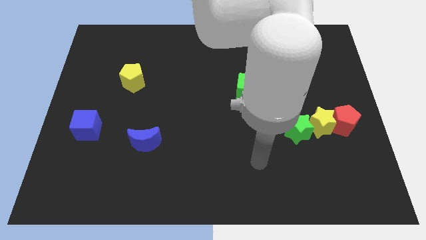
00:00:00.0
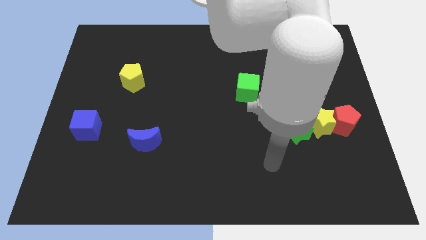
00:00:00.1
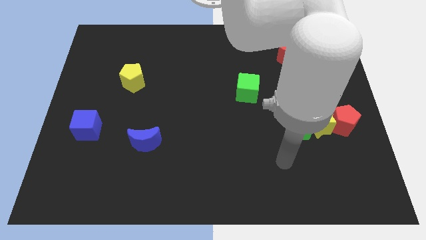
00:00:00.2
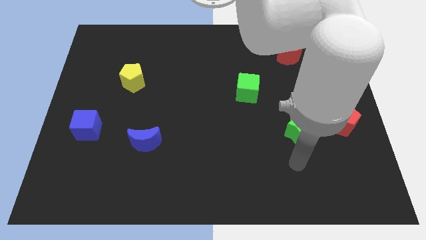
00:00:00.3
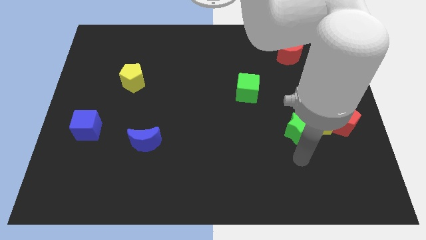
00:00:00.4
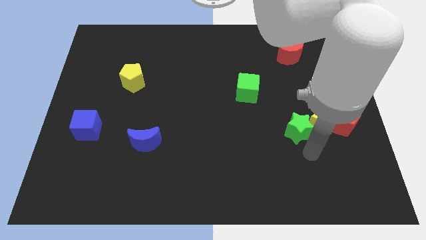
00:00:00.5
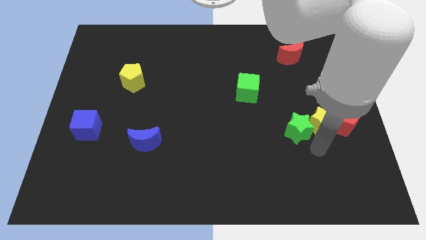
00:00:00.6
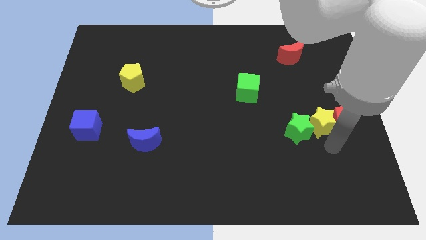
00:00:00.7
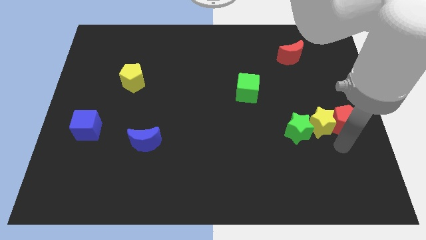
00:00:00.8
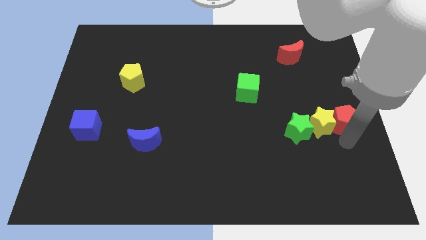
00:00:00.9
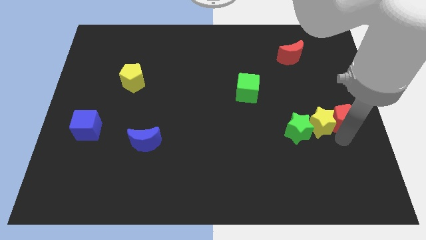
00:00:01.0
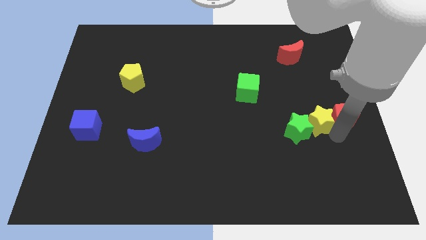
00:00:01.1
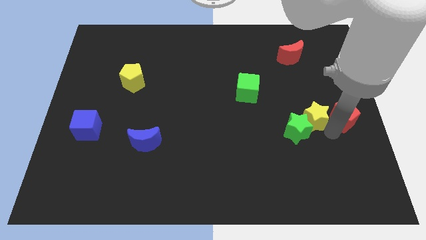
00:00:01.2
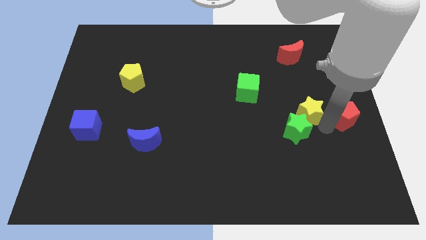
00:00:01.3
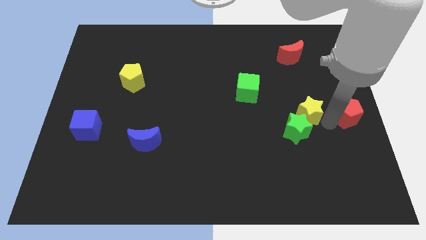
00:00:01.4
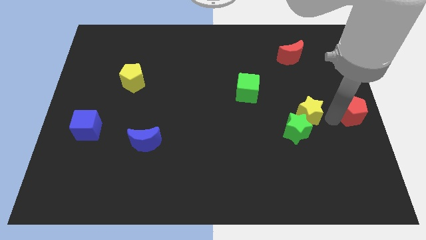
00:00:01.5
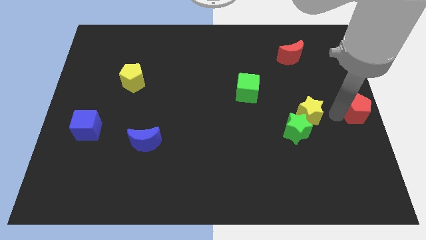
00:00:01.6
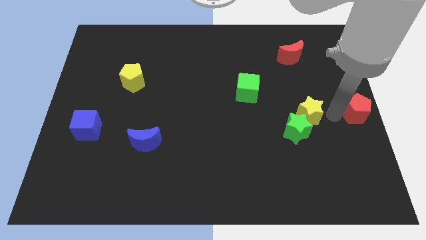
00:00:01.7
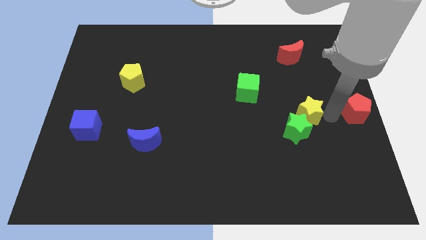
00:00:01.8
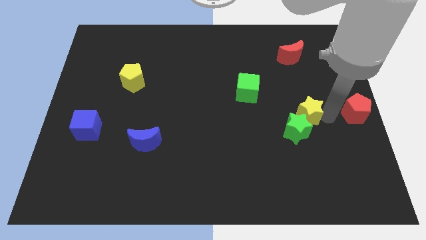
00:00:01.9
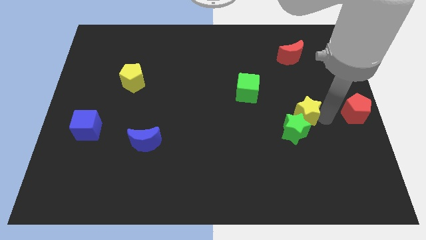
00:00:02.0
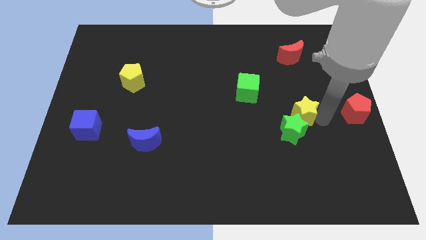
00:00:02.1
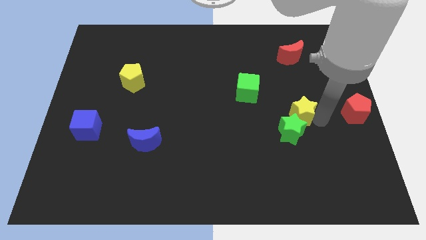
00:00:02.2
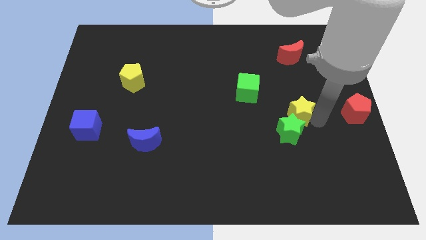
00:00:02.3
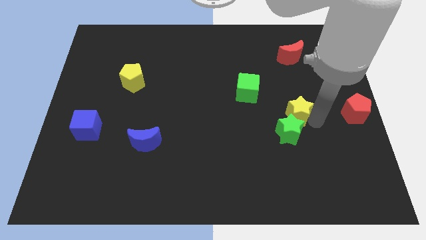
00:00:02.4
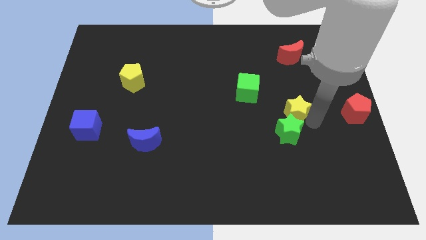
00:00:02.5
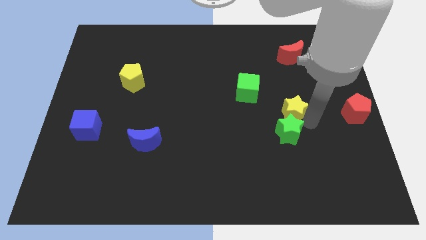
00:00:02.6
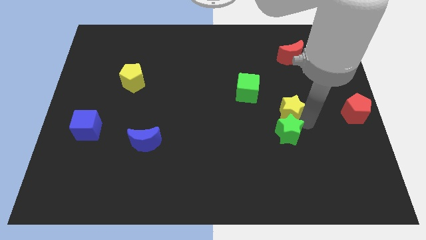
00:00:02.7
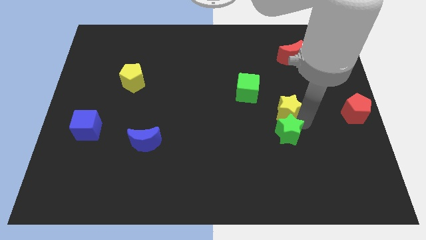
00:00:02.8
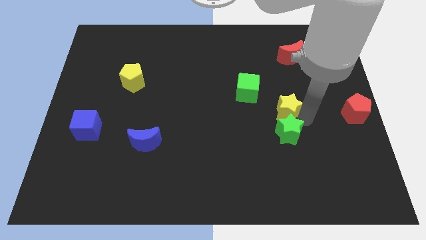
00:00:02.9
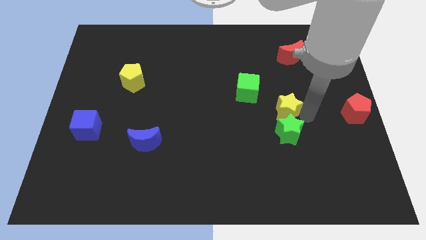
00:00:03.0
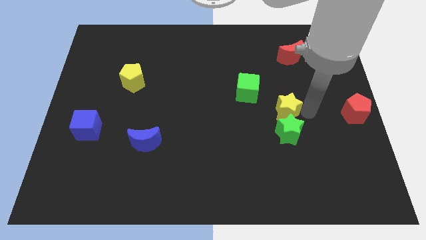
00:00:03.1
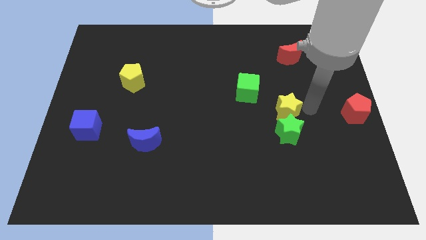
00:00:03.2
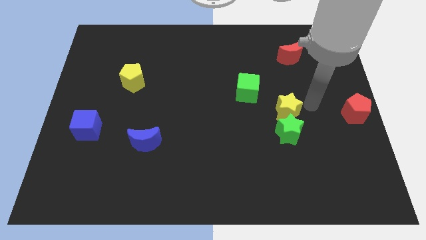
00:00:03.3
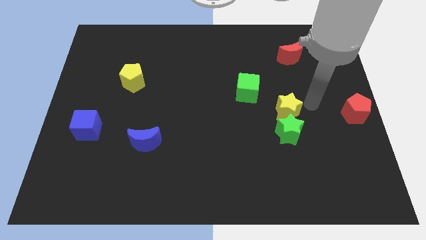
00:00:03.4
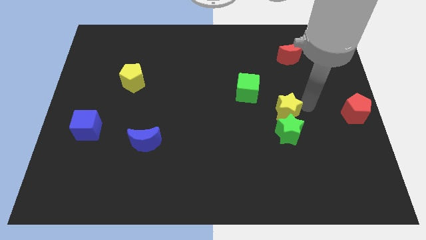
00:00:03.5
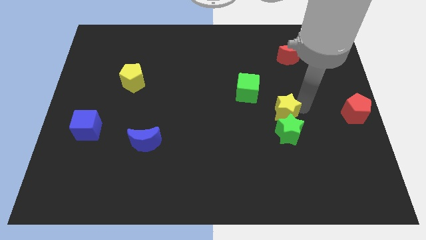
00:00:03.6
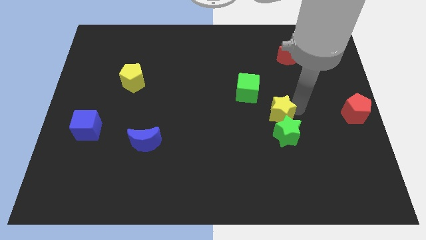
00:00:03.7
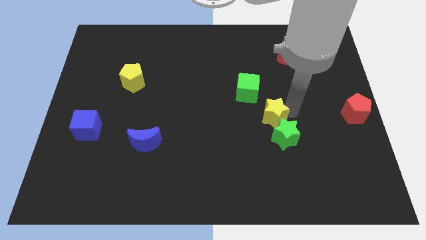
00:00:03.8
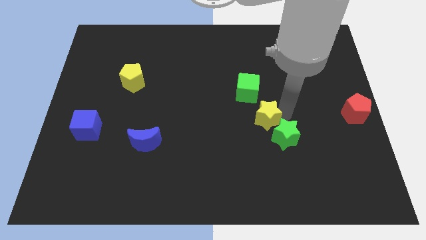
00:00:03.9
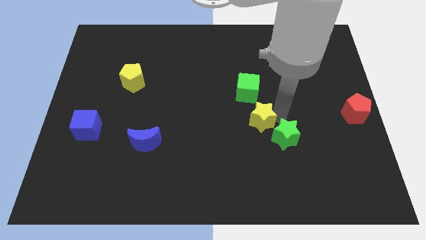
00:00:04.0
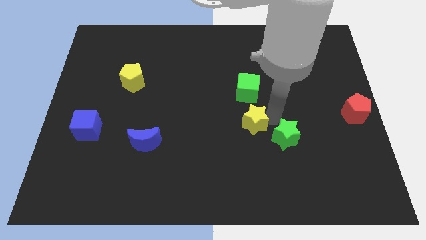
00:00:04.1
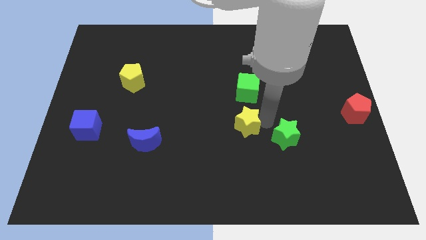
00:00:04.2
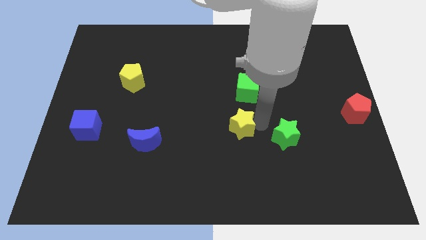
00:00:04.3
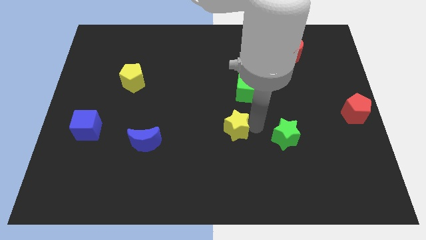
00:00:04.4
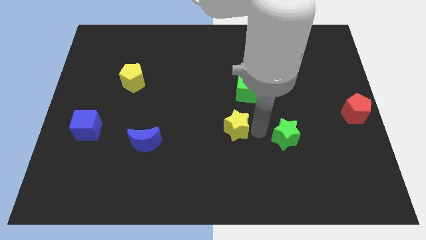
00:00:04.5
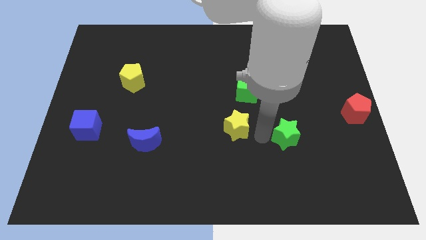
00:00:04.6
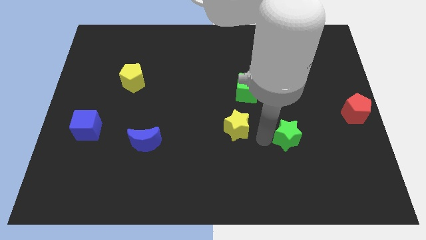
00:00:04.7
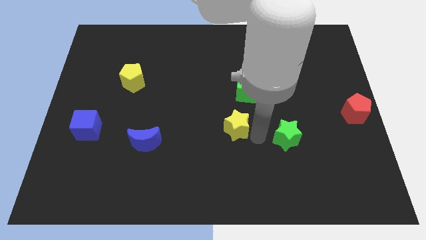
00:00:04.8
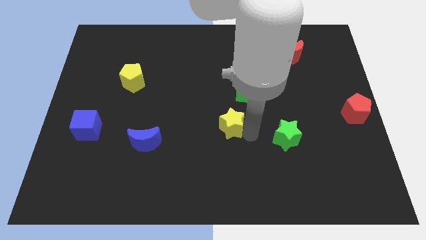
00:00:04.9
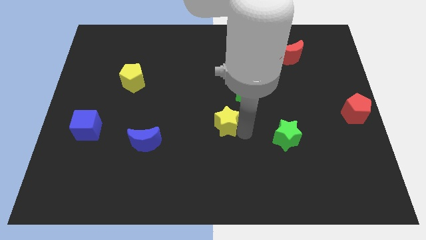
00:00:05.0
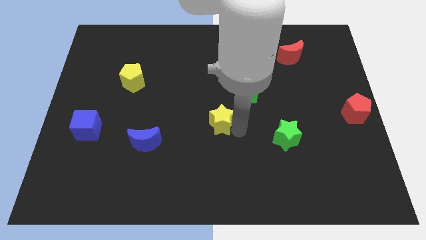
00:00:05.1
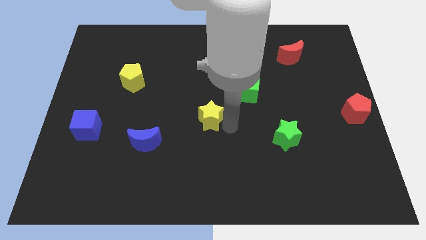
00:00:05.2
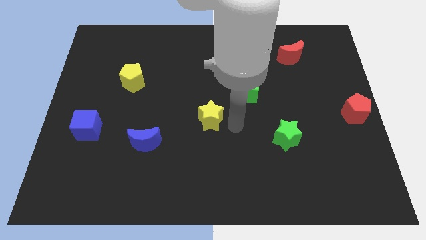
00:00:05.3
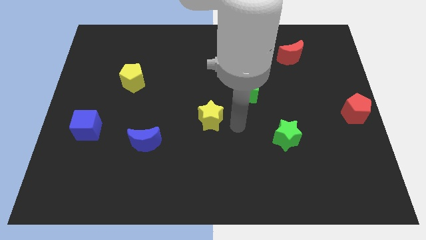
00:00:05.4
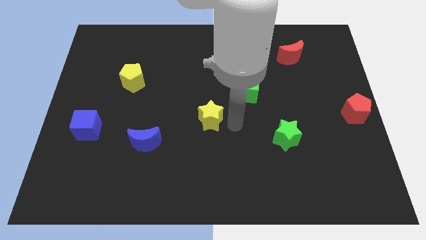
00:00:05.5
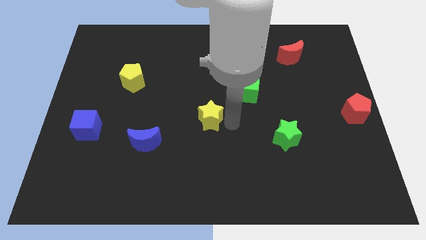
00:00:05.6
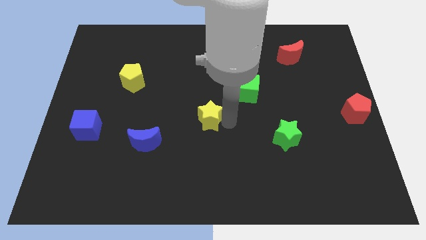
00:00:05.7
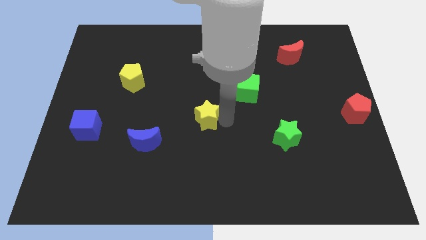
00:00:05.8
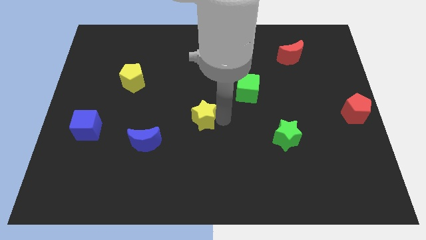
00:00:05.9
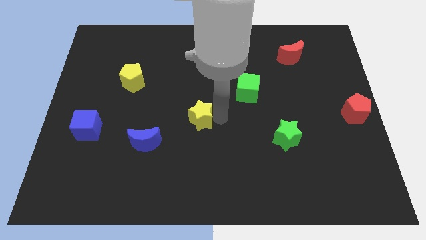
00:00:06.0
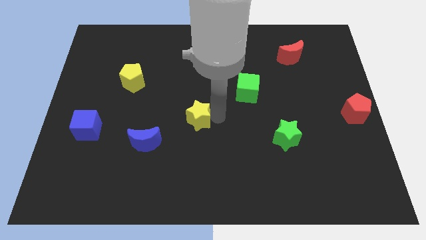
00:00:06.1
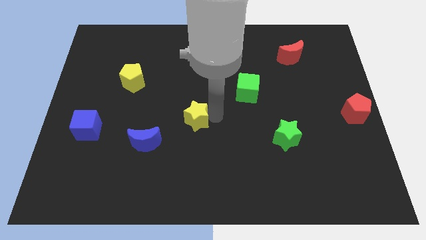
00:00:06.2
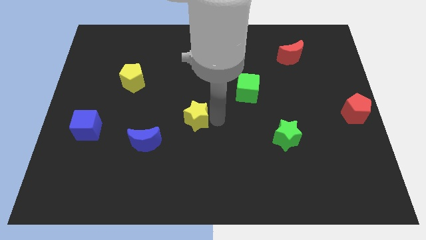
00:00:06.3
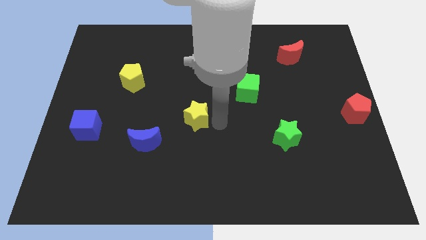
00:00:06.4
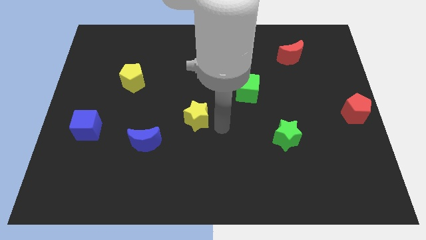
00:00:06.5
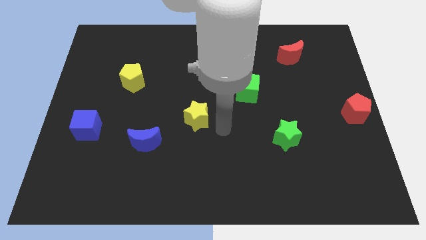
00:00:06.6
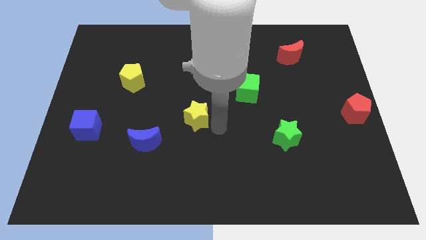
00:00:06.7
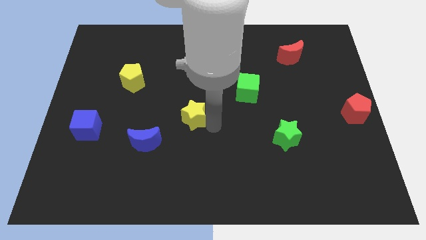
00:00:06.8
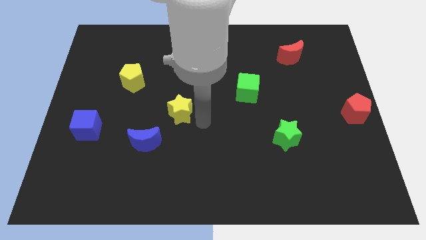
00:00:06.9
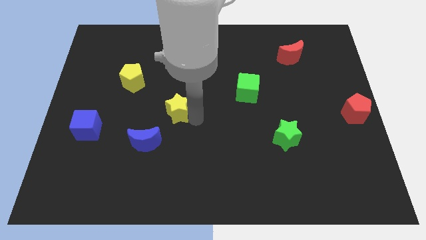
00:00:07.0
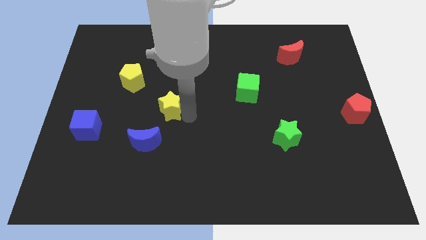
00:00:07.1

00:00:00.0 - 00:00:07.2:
slide the yellow star above the blue moon

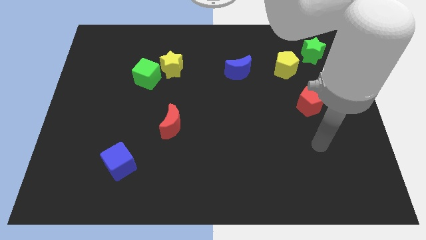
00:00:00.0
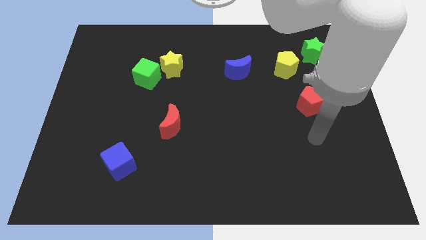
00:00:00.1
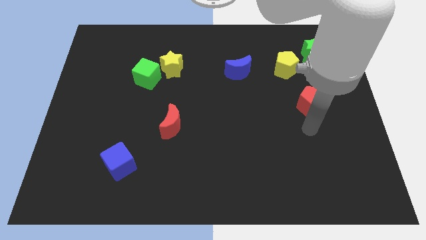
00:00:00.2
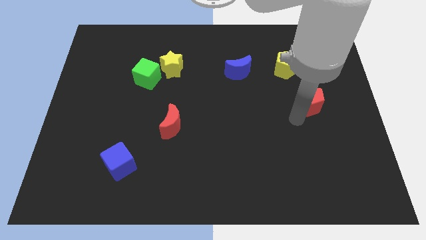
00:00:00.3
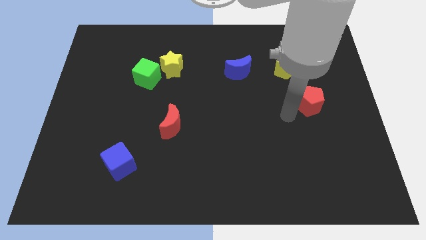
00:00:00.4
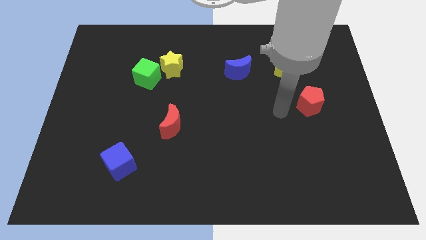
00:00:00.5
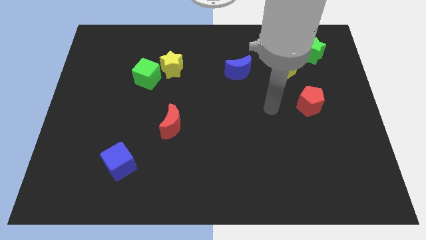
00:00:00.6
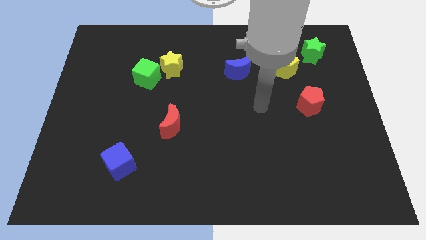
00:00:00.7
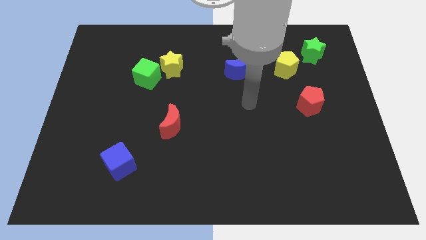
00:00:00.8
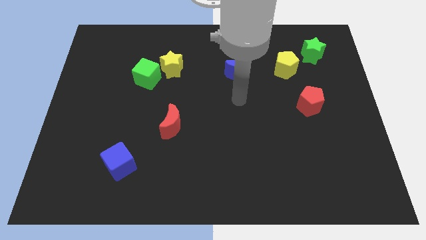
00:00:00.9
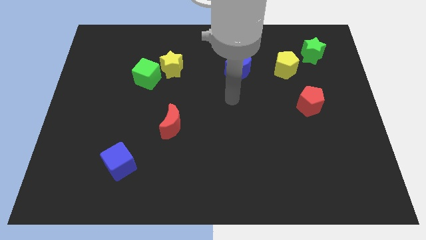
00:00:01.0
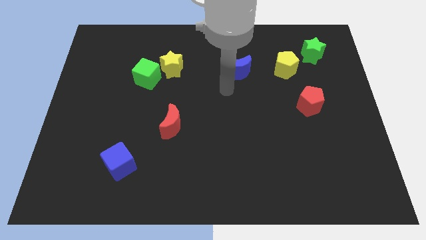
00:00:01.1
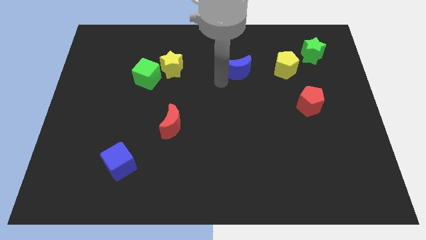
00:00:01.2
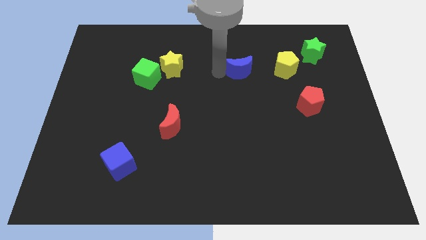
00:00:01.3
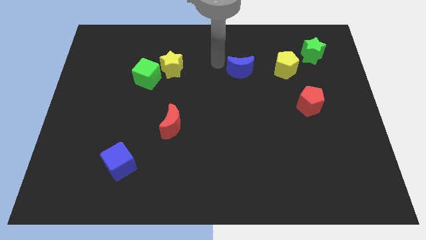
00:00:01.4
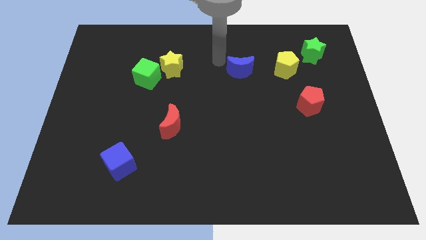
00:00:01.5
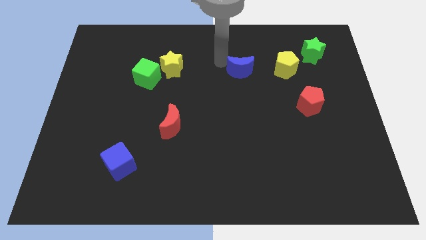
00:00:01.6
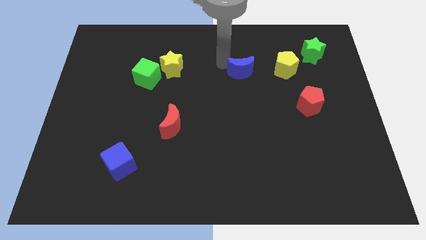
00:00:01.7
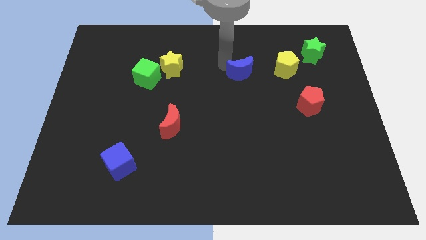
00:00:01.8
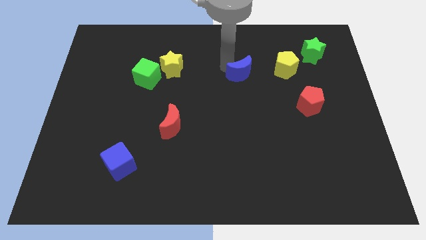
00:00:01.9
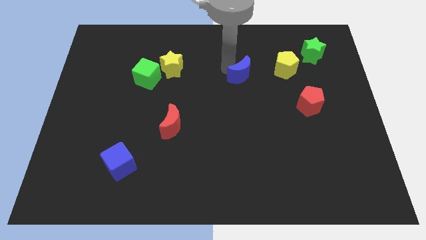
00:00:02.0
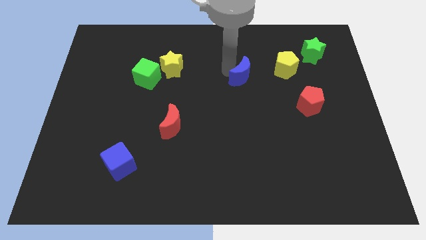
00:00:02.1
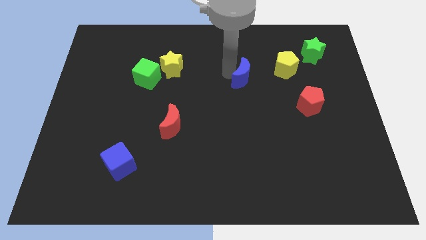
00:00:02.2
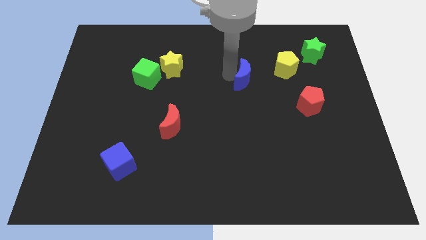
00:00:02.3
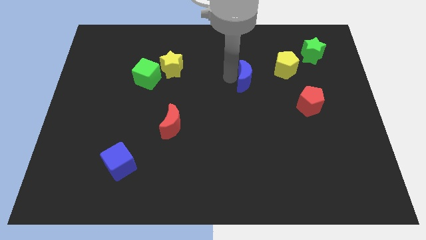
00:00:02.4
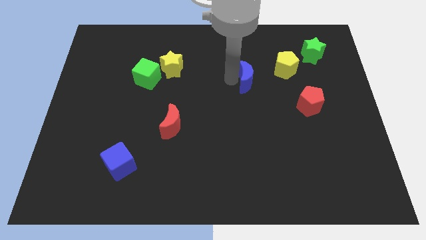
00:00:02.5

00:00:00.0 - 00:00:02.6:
push the blue moon to the bottom left of the yellow pentagon
